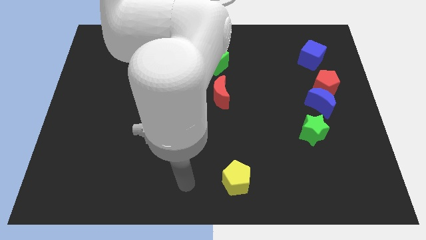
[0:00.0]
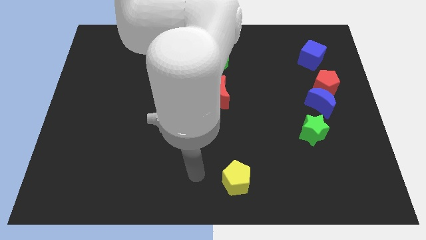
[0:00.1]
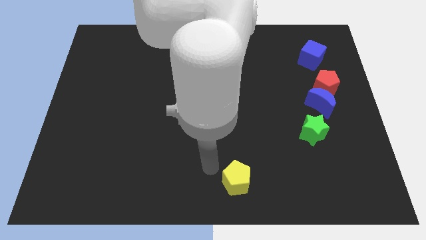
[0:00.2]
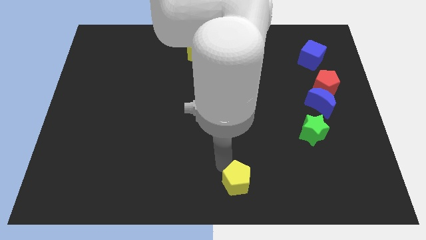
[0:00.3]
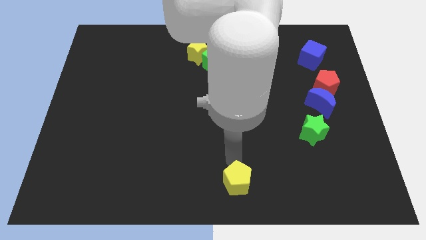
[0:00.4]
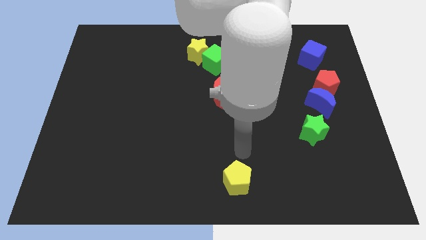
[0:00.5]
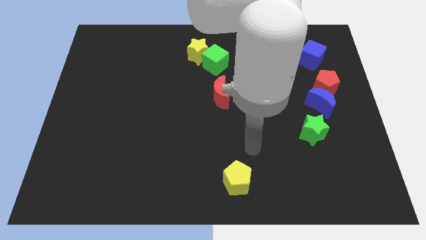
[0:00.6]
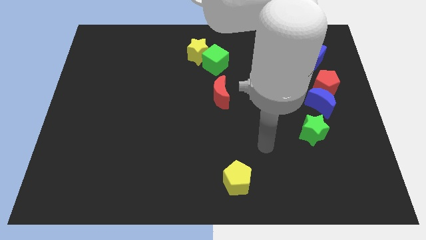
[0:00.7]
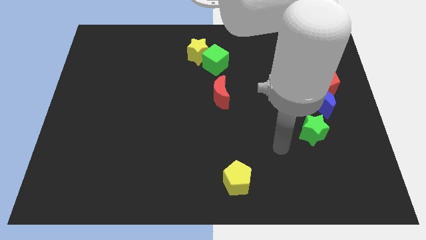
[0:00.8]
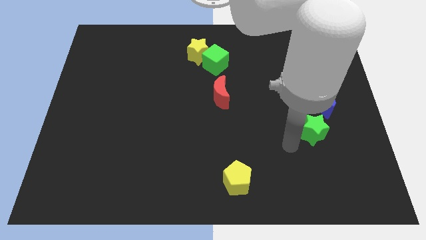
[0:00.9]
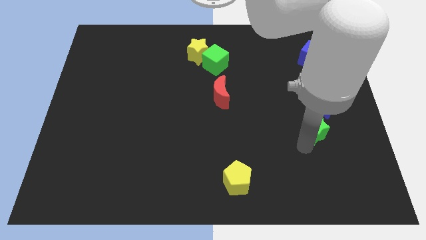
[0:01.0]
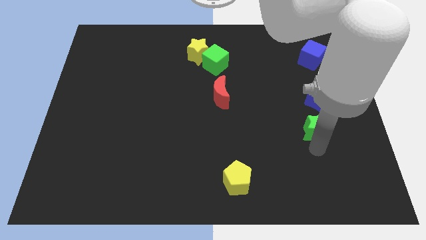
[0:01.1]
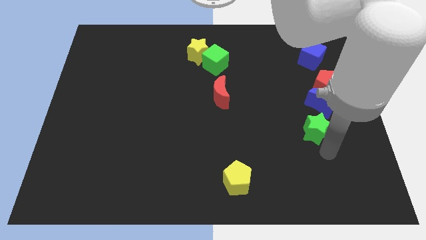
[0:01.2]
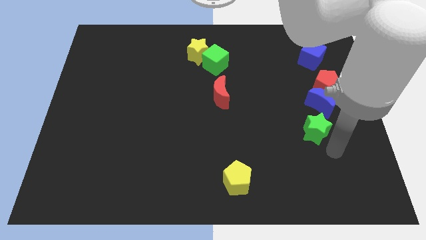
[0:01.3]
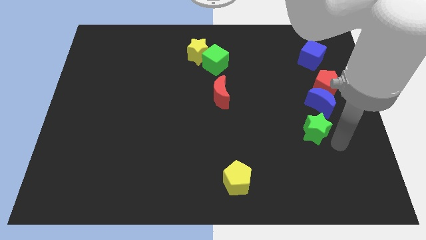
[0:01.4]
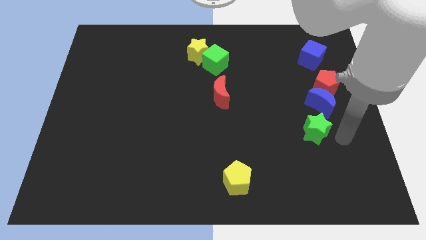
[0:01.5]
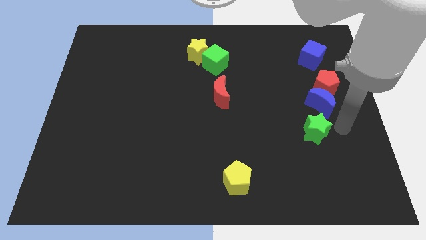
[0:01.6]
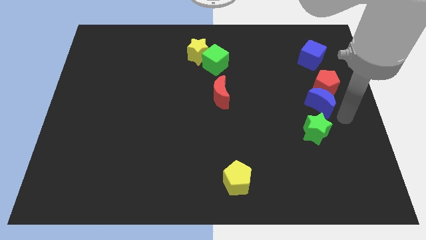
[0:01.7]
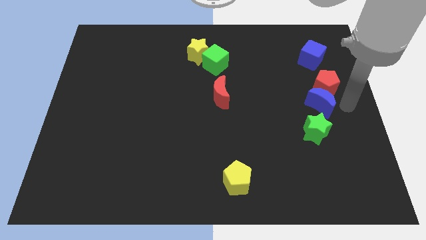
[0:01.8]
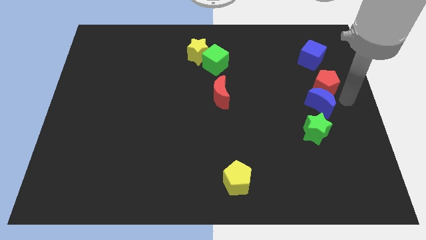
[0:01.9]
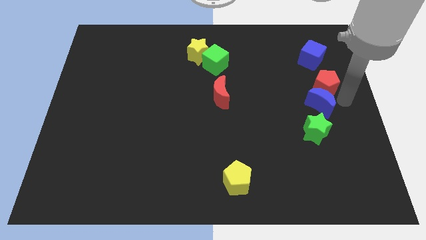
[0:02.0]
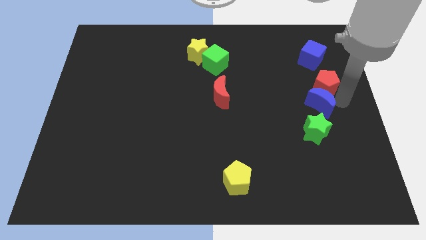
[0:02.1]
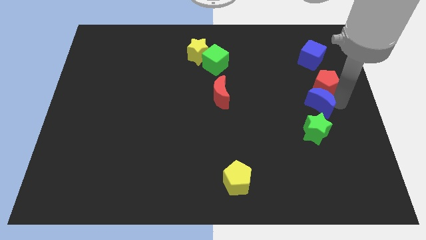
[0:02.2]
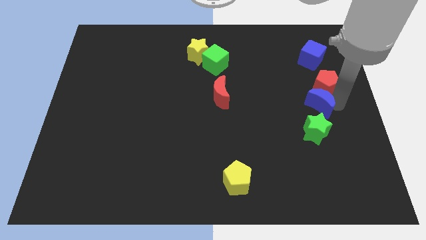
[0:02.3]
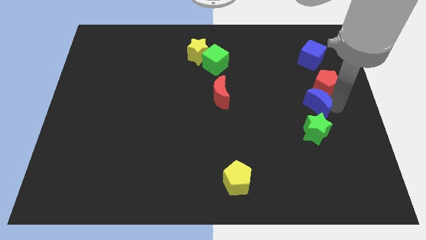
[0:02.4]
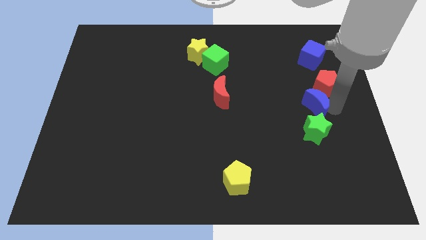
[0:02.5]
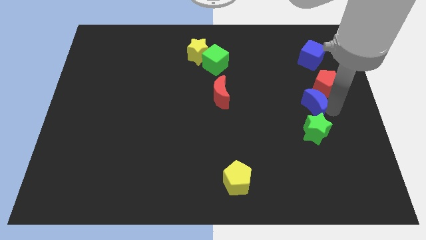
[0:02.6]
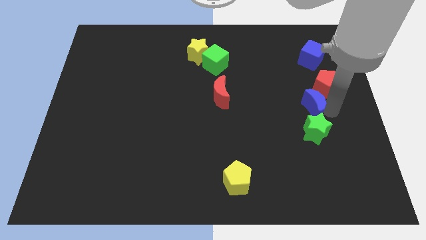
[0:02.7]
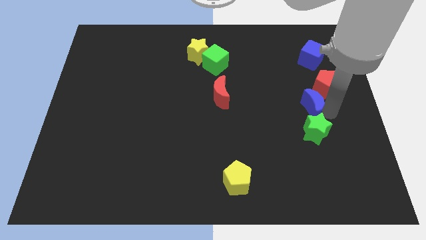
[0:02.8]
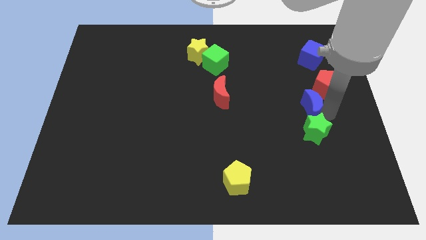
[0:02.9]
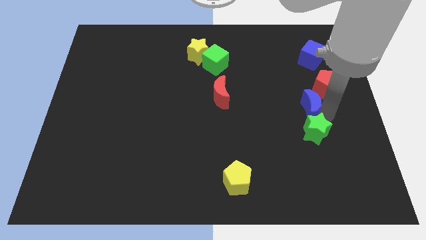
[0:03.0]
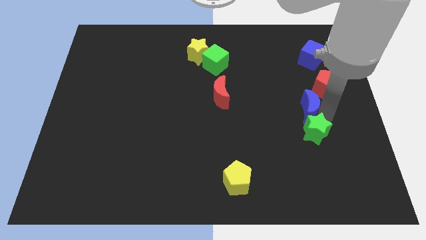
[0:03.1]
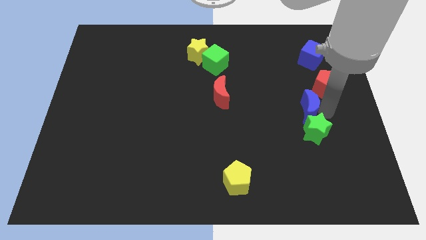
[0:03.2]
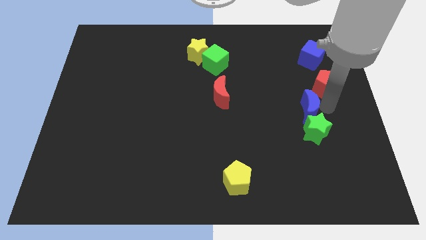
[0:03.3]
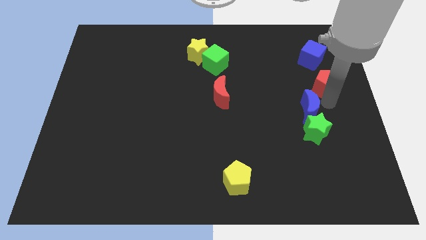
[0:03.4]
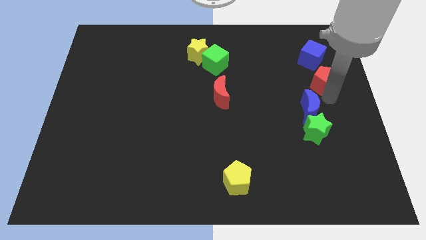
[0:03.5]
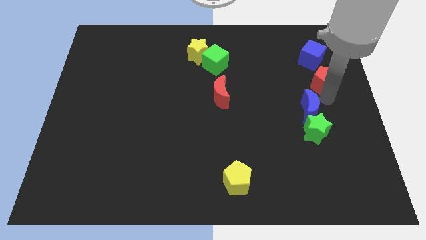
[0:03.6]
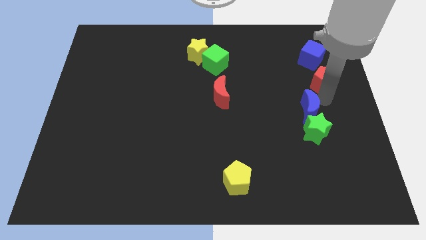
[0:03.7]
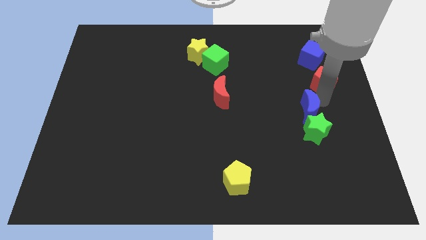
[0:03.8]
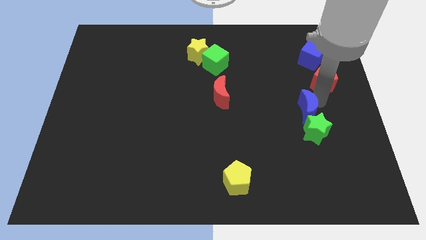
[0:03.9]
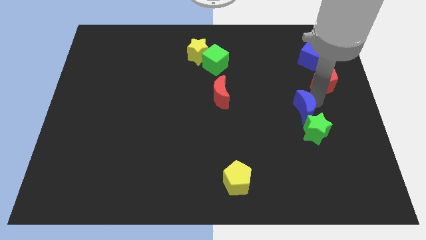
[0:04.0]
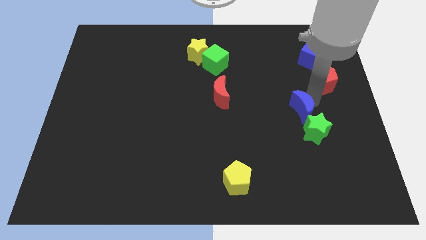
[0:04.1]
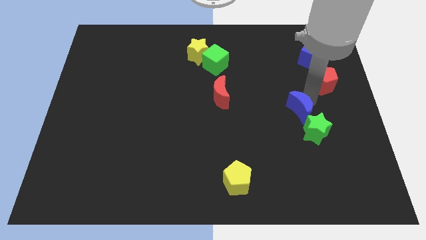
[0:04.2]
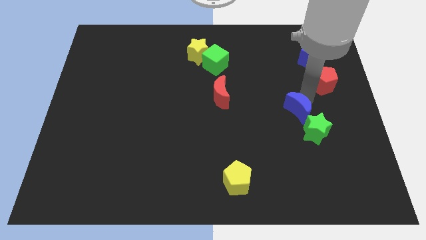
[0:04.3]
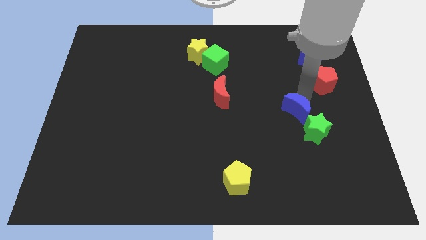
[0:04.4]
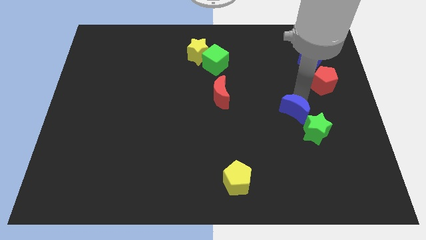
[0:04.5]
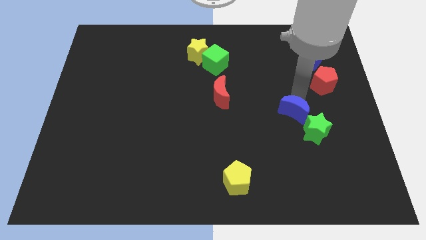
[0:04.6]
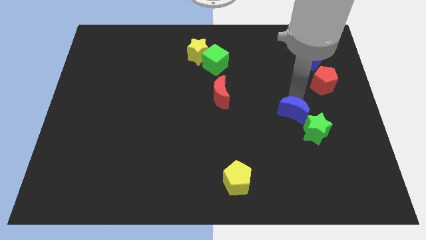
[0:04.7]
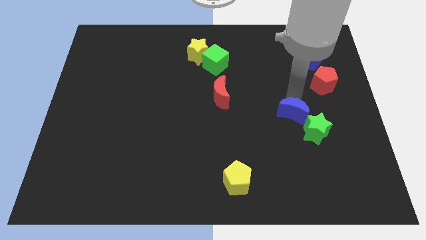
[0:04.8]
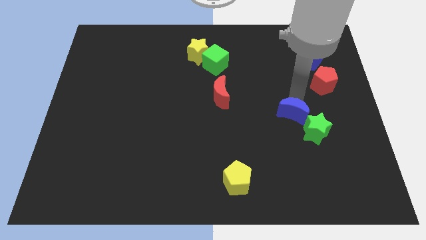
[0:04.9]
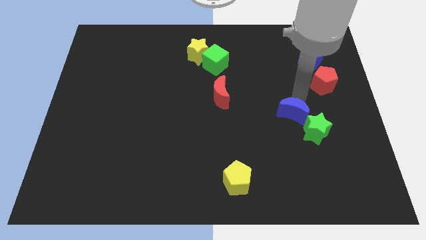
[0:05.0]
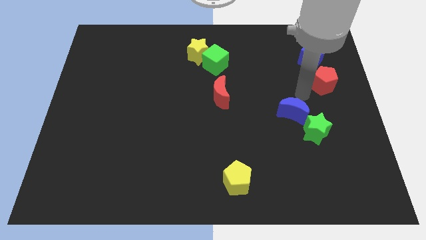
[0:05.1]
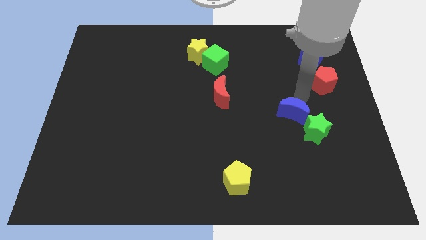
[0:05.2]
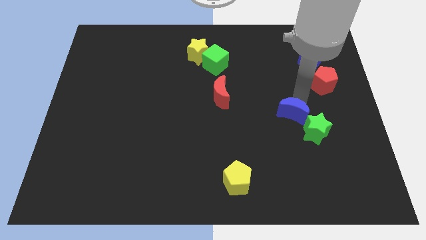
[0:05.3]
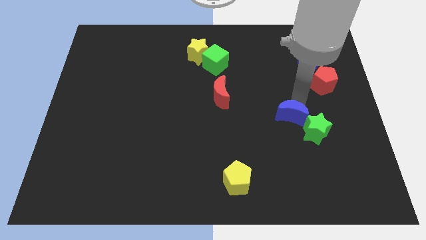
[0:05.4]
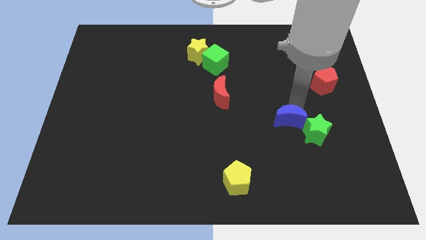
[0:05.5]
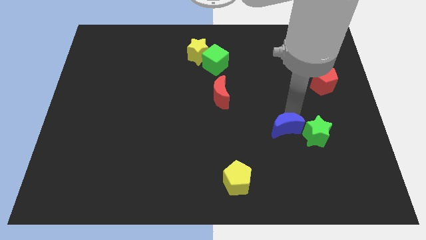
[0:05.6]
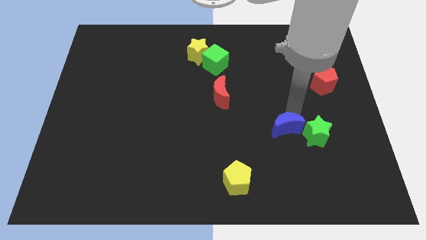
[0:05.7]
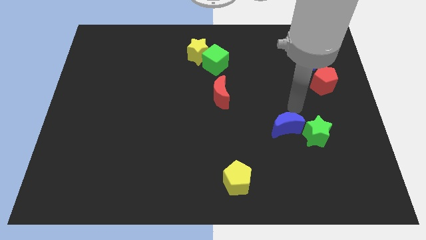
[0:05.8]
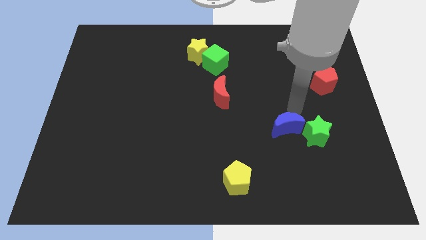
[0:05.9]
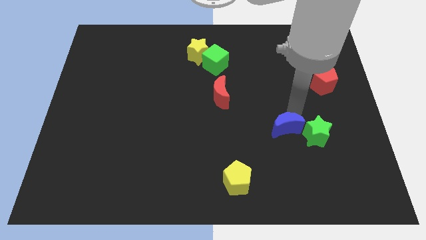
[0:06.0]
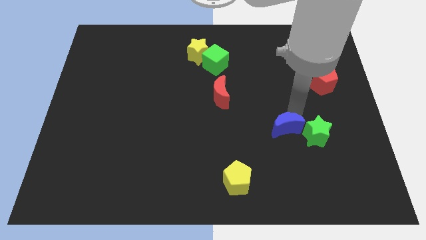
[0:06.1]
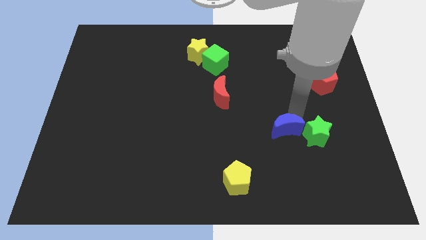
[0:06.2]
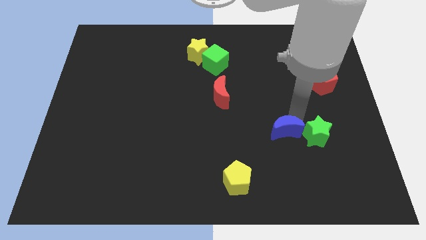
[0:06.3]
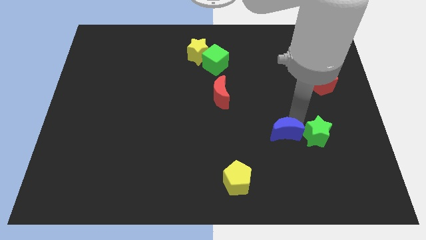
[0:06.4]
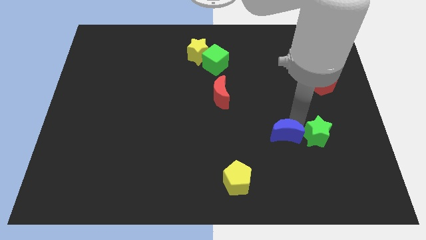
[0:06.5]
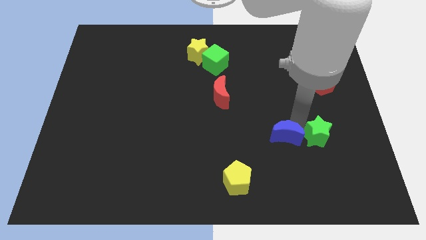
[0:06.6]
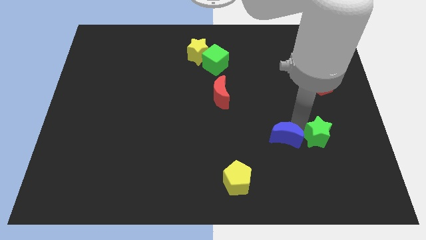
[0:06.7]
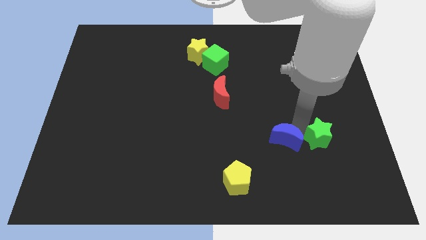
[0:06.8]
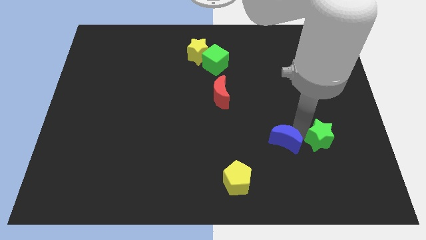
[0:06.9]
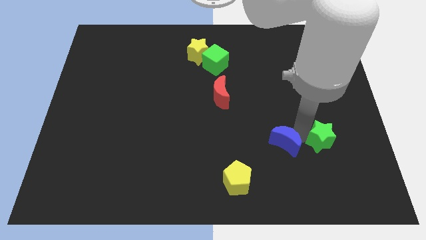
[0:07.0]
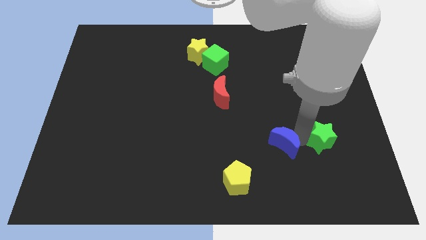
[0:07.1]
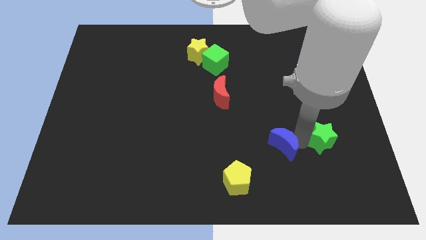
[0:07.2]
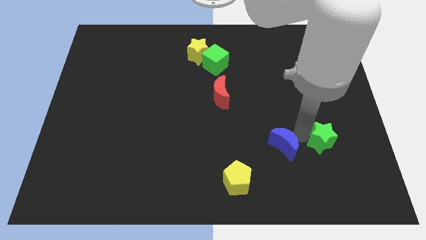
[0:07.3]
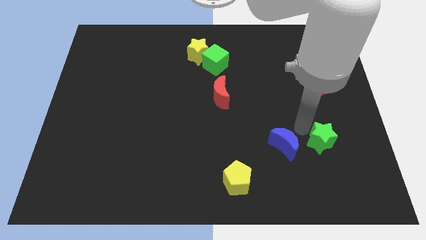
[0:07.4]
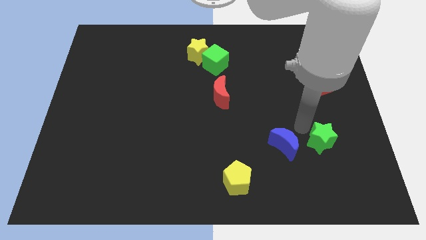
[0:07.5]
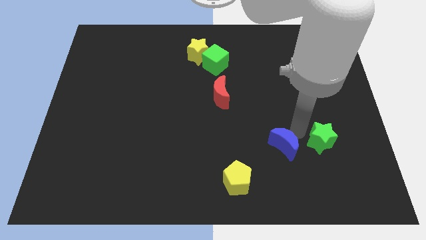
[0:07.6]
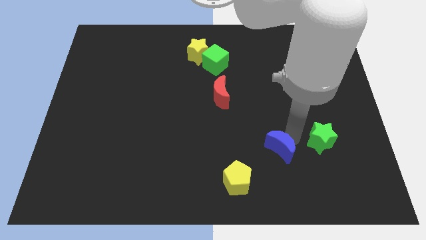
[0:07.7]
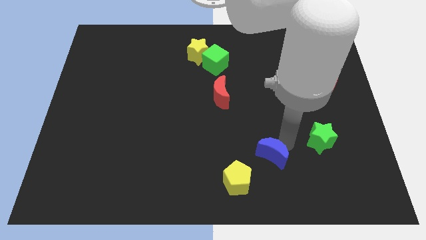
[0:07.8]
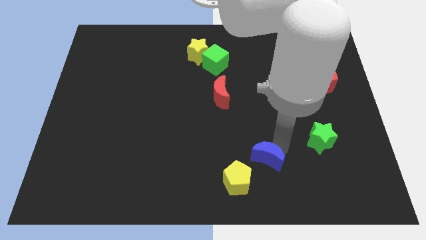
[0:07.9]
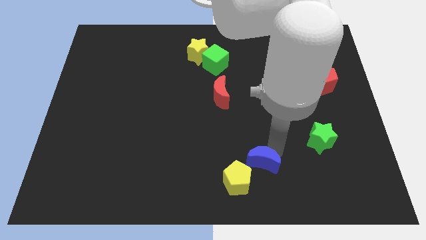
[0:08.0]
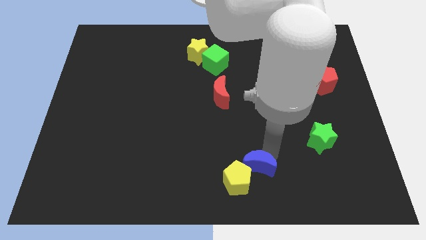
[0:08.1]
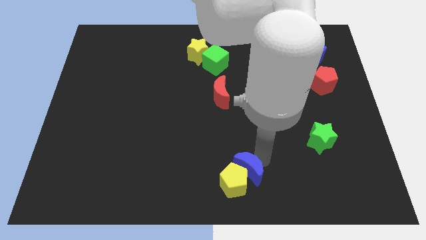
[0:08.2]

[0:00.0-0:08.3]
slide the blue moon to the bottom side
